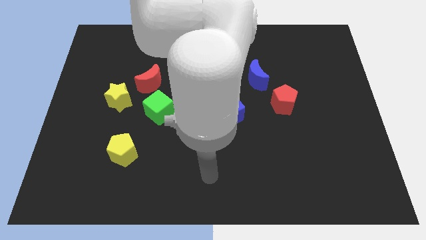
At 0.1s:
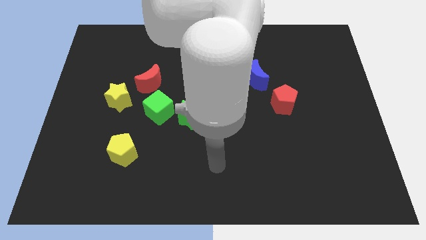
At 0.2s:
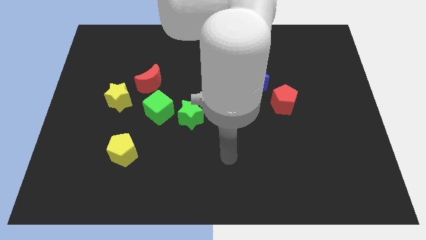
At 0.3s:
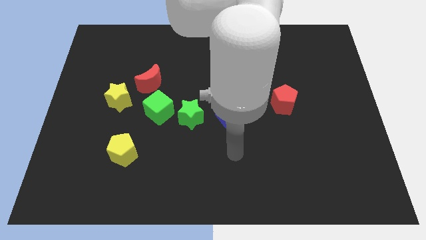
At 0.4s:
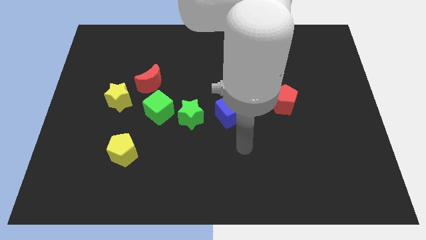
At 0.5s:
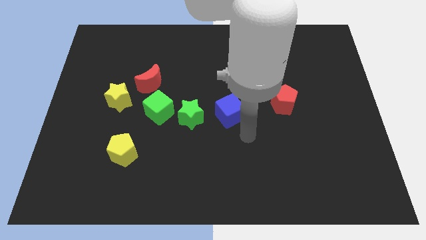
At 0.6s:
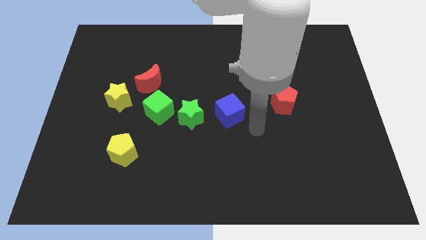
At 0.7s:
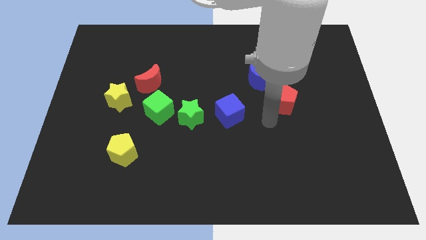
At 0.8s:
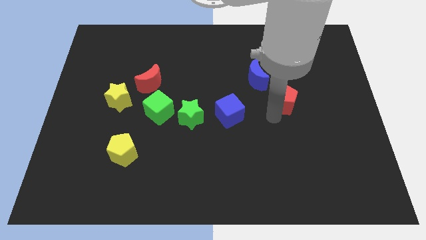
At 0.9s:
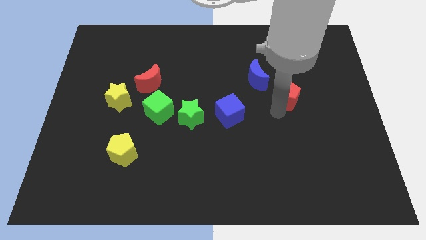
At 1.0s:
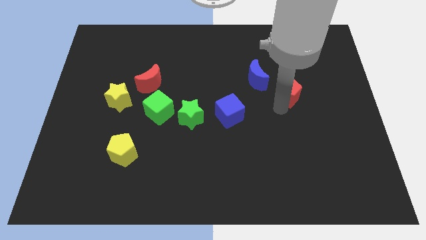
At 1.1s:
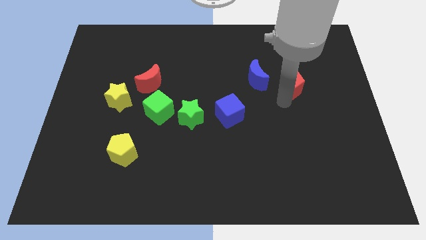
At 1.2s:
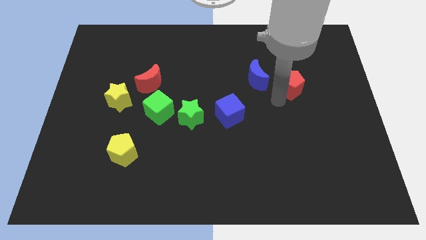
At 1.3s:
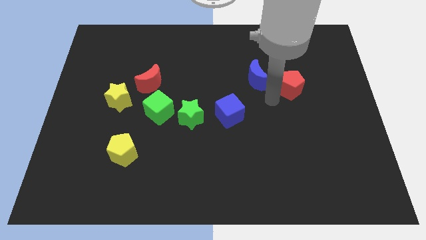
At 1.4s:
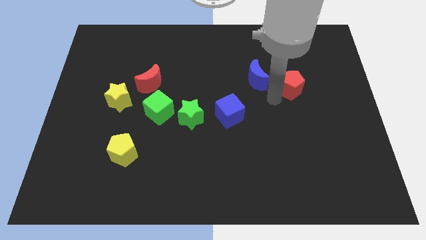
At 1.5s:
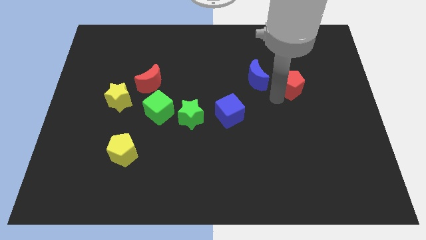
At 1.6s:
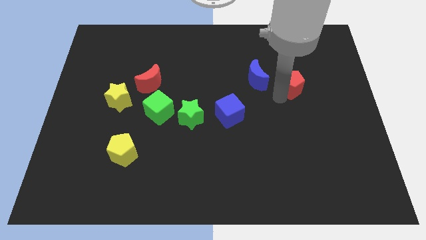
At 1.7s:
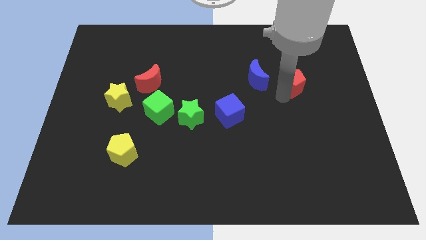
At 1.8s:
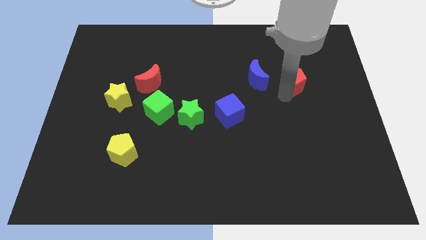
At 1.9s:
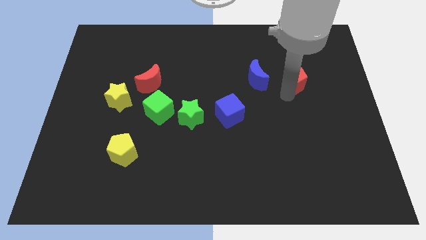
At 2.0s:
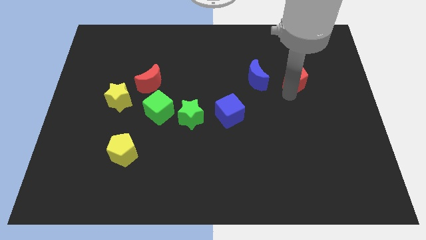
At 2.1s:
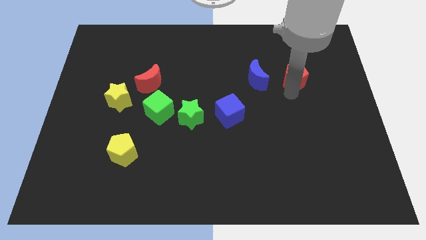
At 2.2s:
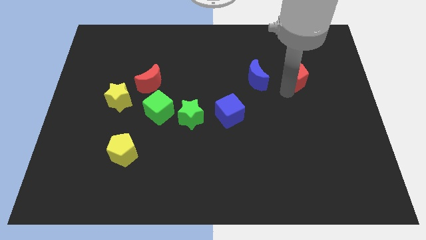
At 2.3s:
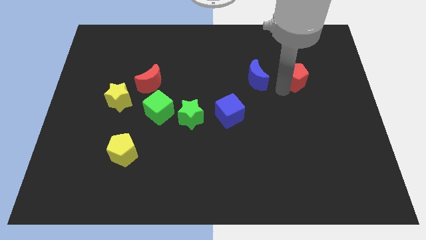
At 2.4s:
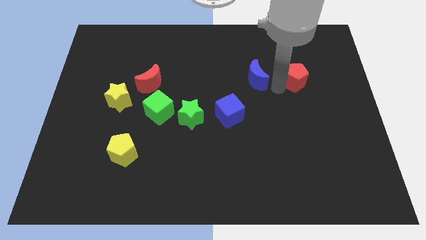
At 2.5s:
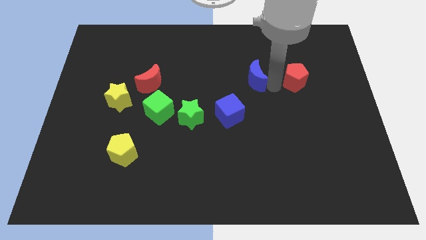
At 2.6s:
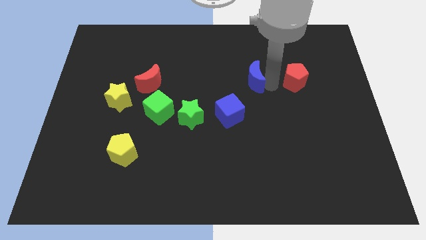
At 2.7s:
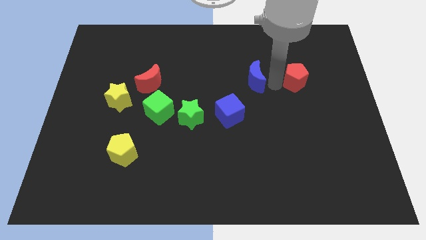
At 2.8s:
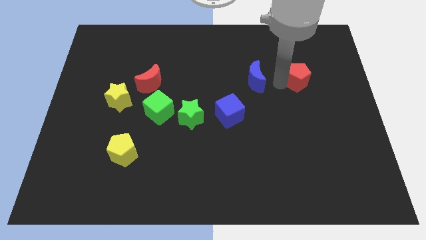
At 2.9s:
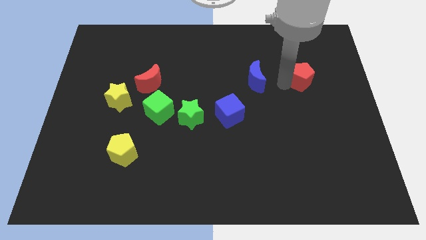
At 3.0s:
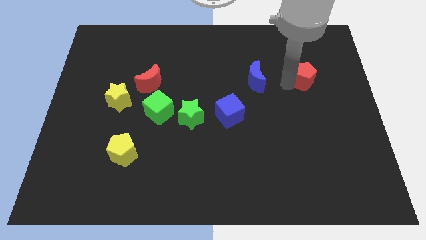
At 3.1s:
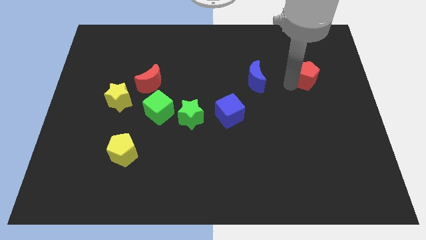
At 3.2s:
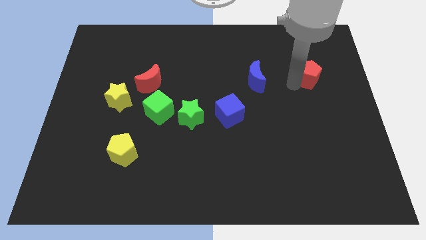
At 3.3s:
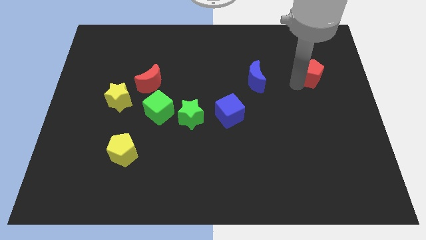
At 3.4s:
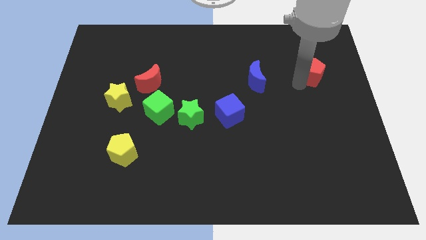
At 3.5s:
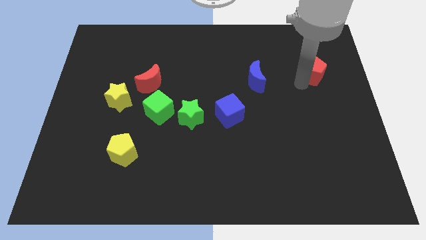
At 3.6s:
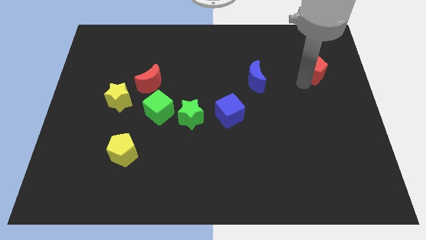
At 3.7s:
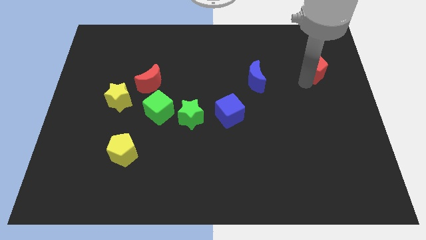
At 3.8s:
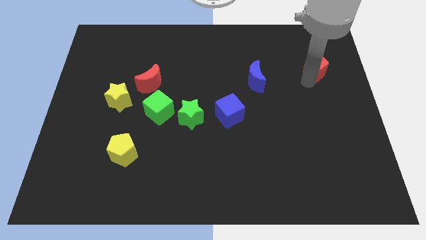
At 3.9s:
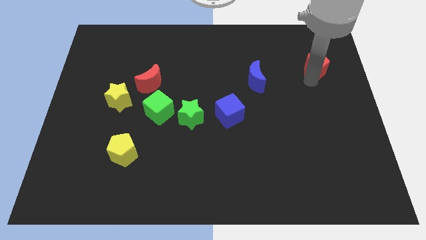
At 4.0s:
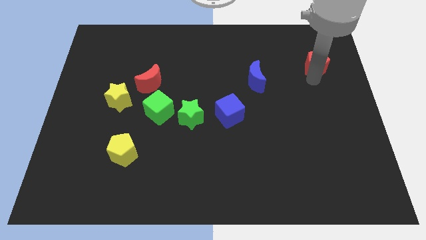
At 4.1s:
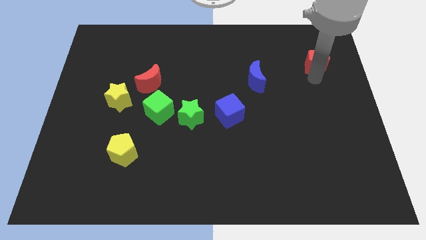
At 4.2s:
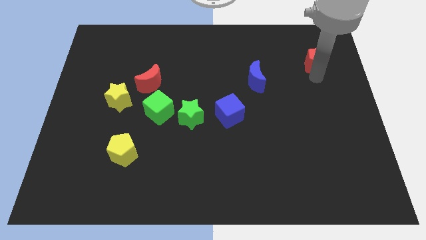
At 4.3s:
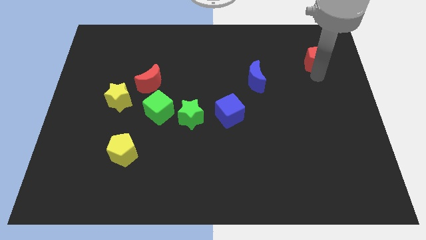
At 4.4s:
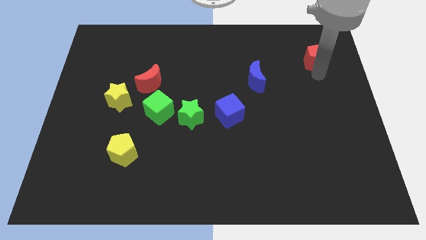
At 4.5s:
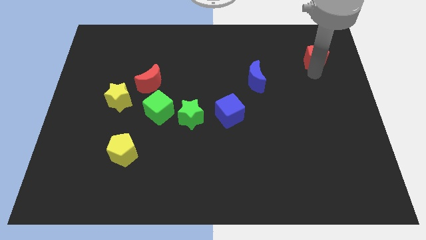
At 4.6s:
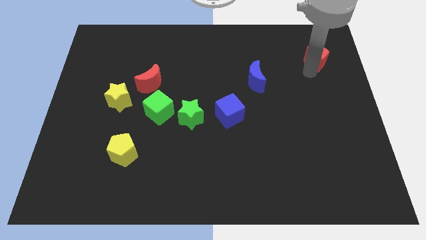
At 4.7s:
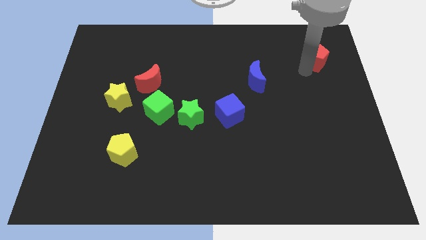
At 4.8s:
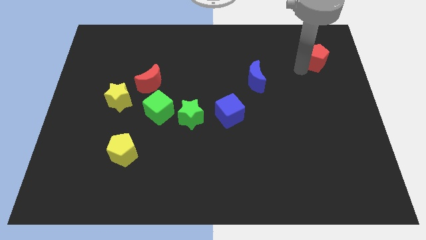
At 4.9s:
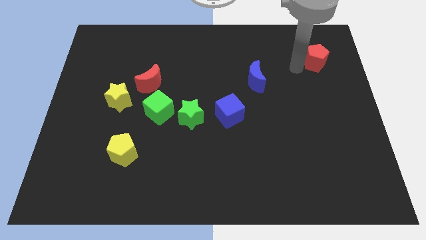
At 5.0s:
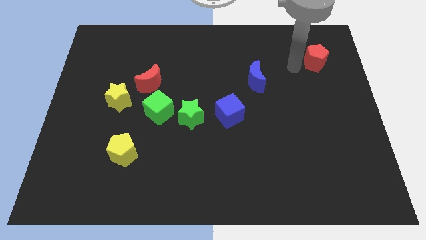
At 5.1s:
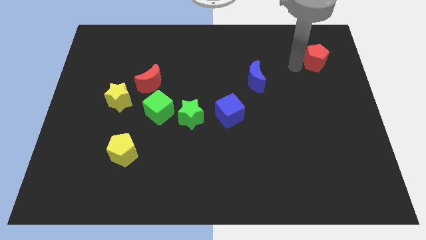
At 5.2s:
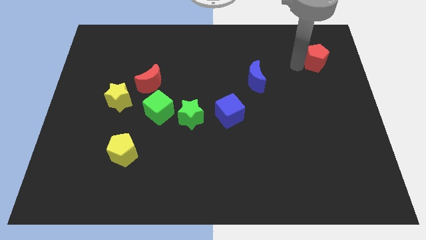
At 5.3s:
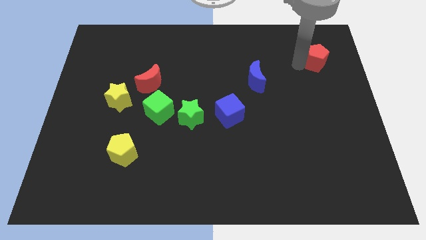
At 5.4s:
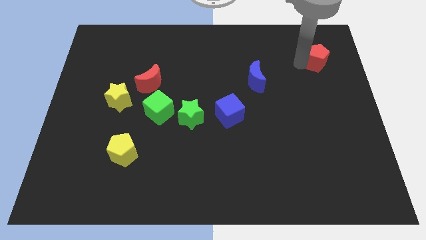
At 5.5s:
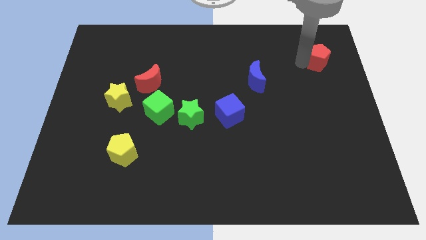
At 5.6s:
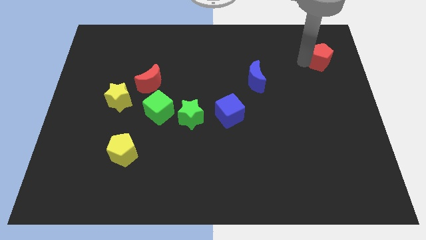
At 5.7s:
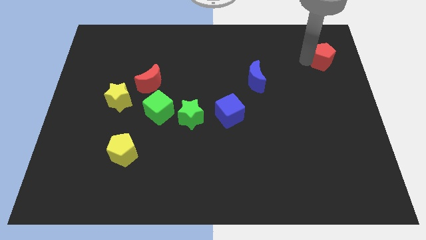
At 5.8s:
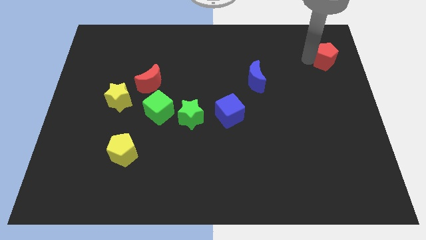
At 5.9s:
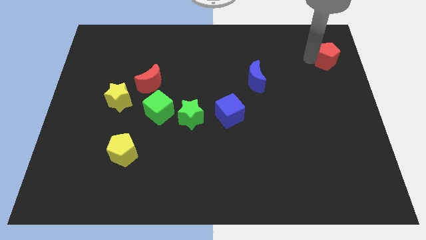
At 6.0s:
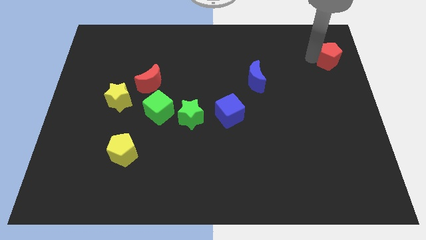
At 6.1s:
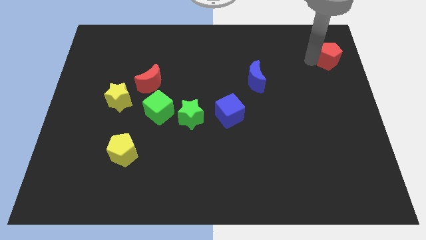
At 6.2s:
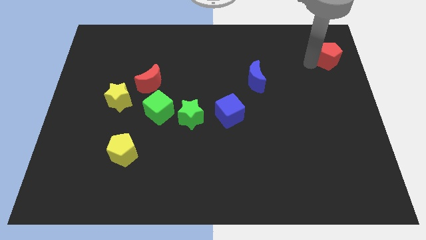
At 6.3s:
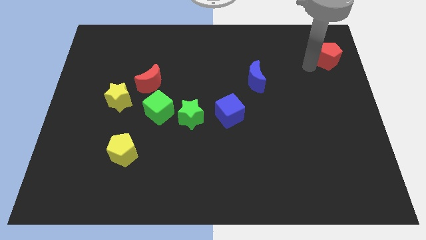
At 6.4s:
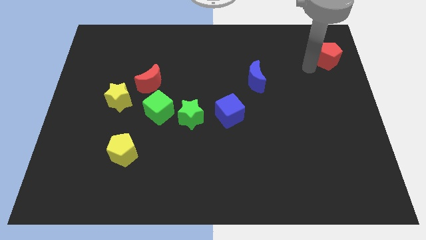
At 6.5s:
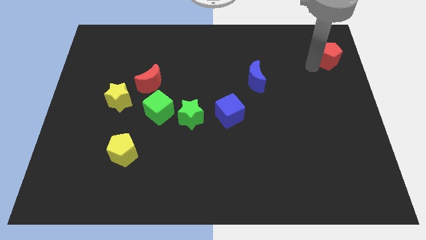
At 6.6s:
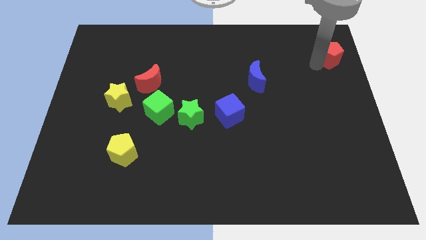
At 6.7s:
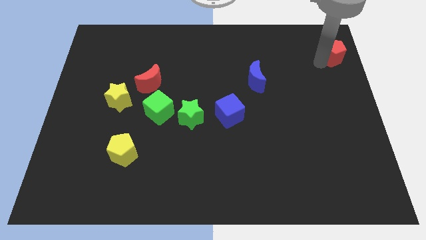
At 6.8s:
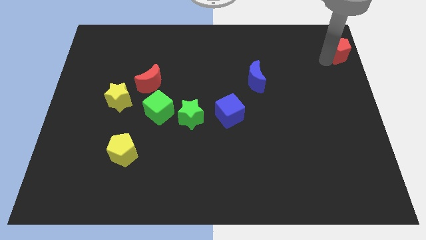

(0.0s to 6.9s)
put the red pentagon to the upper right corner
